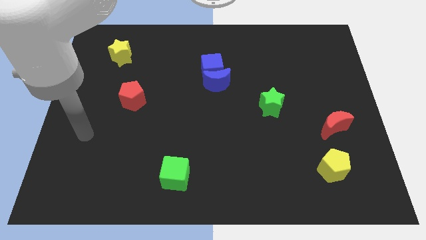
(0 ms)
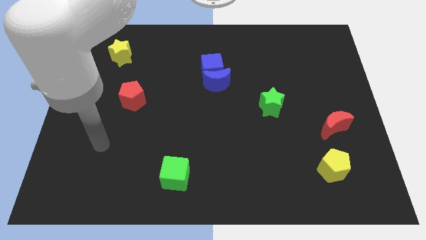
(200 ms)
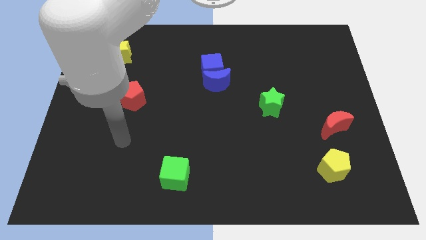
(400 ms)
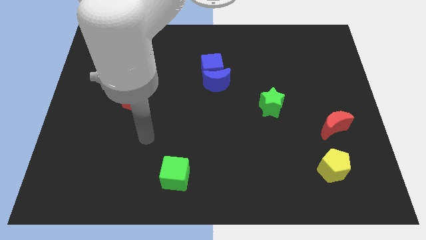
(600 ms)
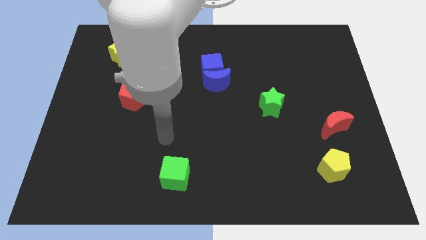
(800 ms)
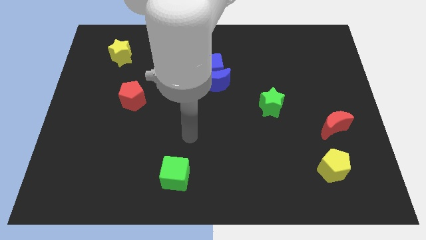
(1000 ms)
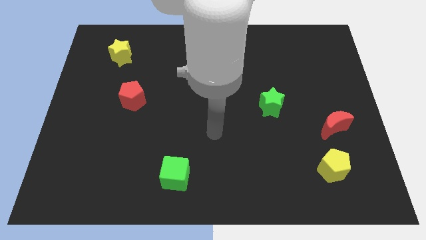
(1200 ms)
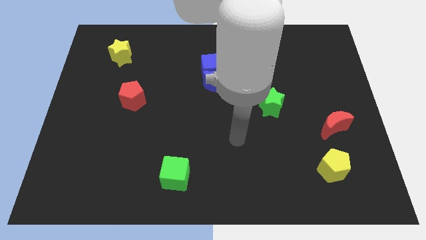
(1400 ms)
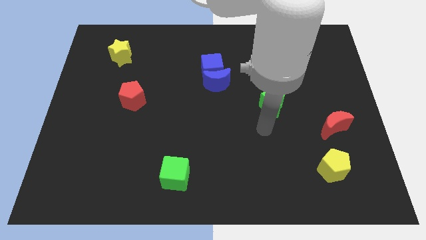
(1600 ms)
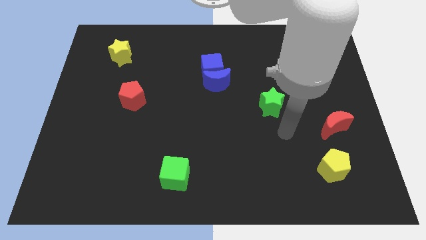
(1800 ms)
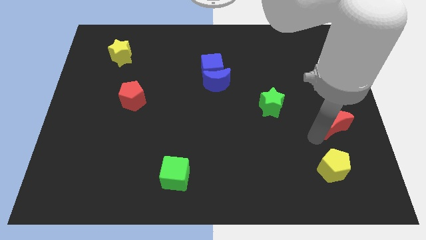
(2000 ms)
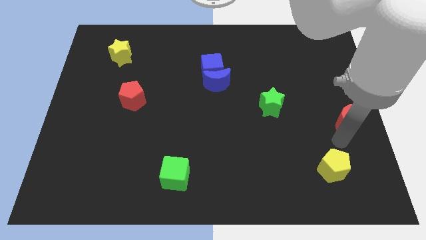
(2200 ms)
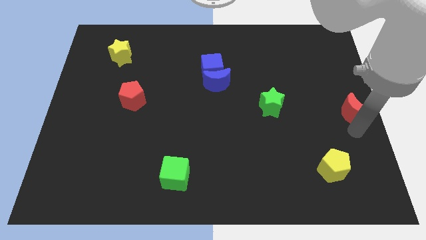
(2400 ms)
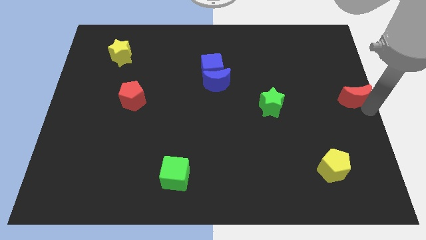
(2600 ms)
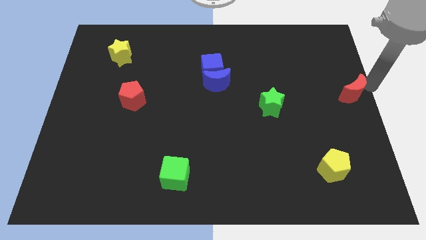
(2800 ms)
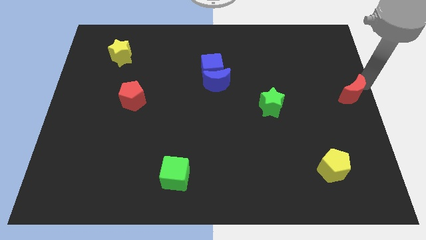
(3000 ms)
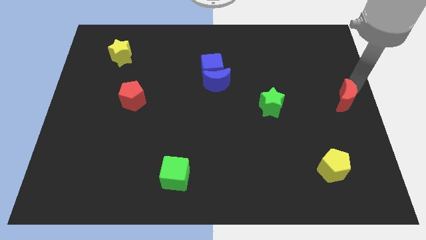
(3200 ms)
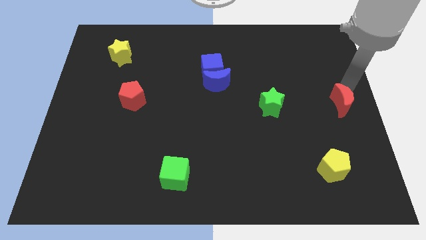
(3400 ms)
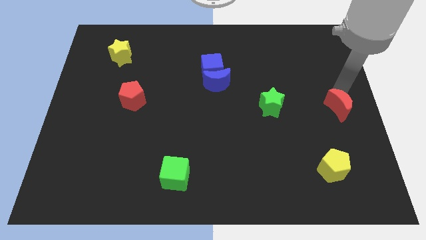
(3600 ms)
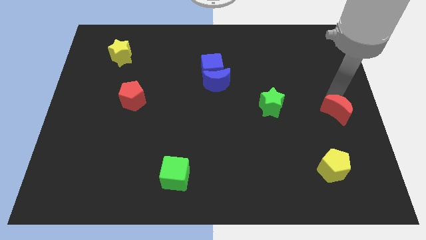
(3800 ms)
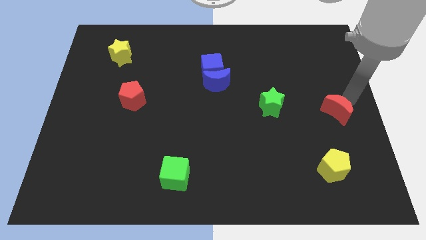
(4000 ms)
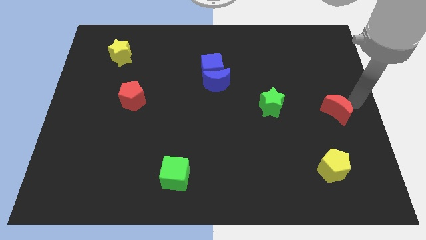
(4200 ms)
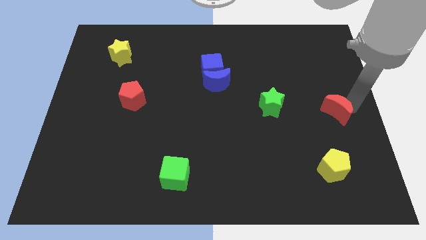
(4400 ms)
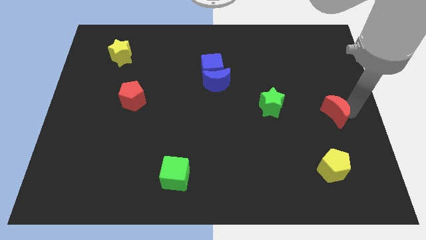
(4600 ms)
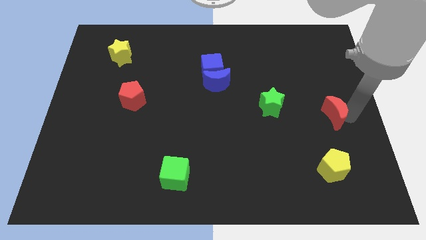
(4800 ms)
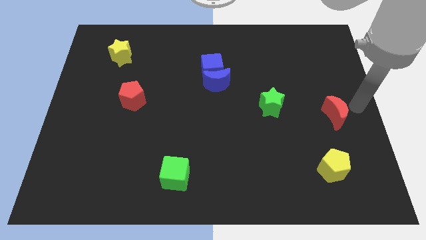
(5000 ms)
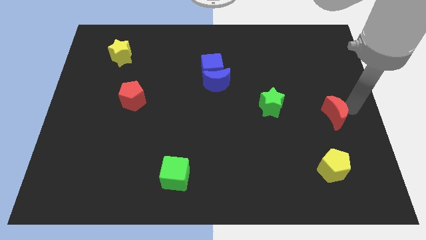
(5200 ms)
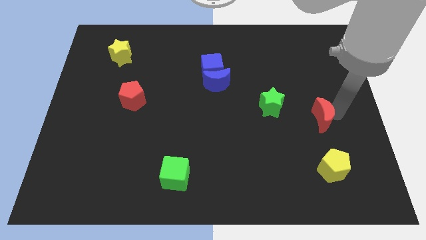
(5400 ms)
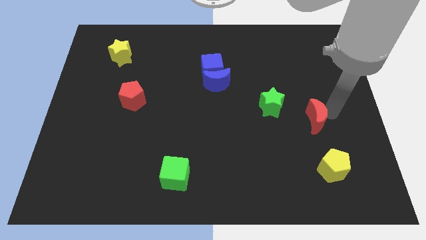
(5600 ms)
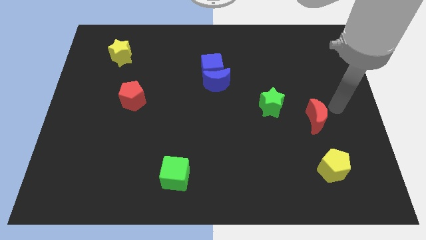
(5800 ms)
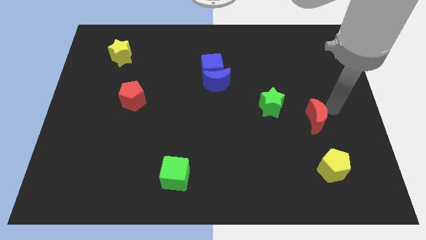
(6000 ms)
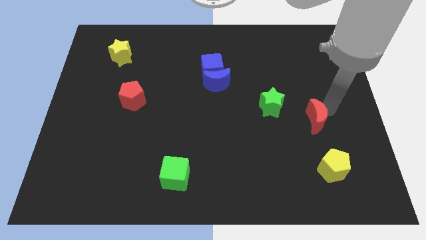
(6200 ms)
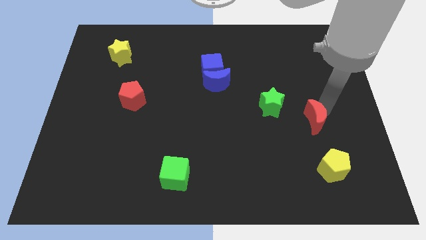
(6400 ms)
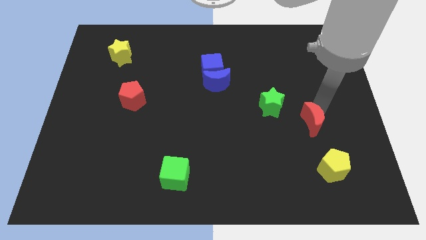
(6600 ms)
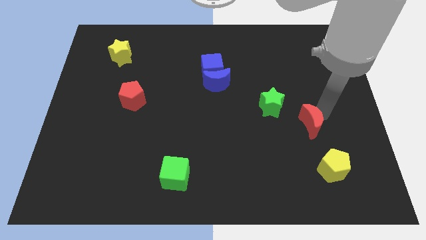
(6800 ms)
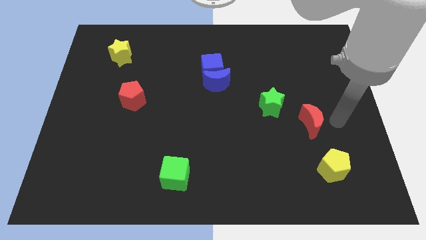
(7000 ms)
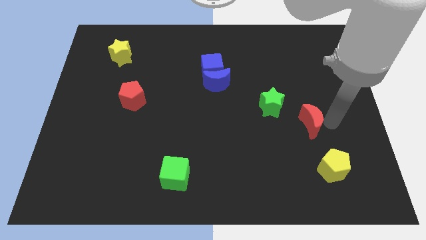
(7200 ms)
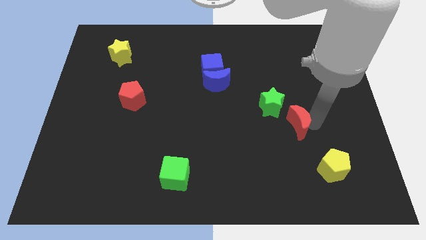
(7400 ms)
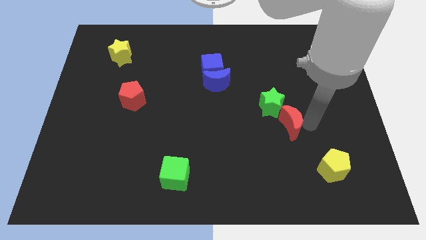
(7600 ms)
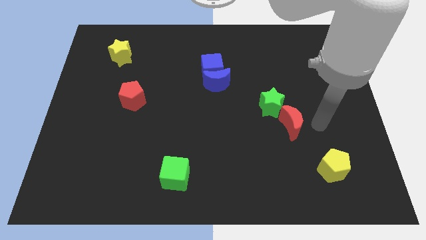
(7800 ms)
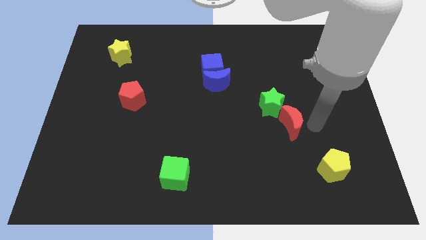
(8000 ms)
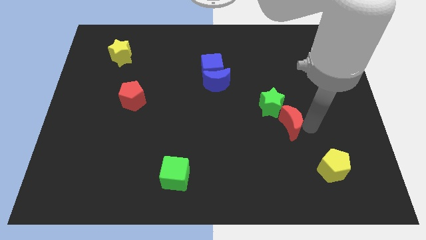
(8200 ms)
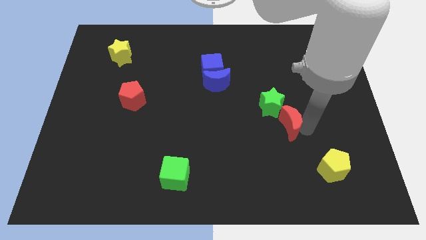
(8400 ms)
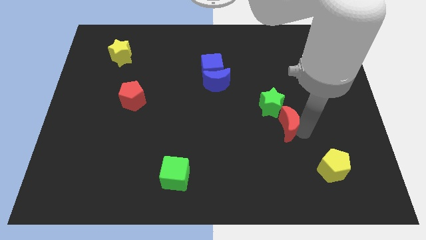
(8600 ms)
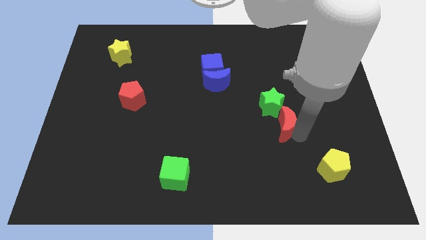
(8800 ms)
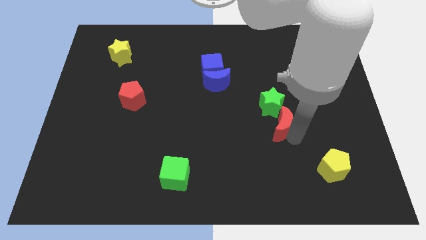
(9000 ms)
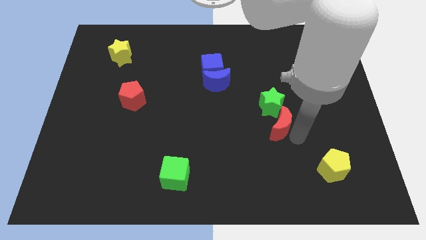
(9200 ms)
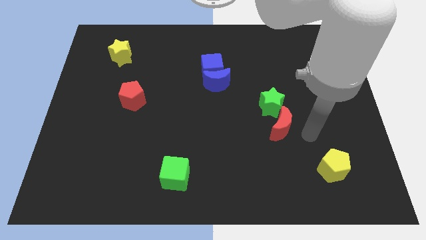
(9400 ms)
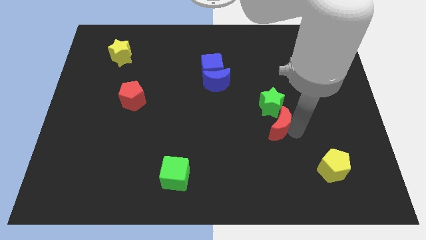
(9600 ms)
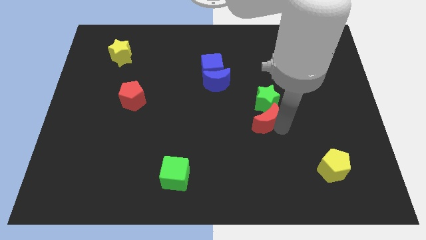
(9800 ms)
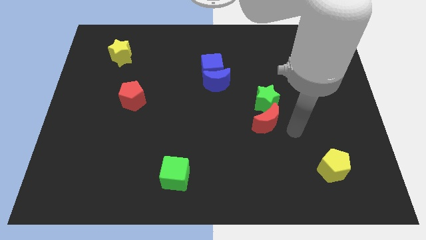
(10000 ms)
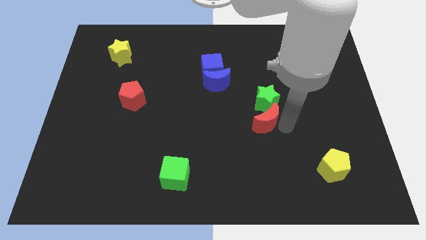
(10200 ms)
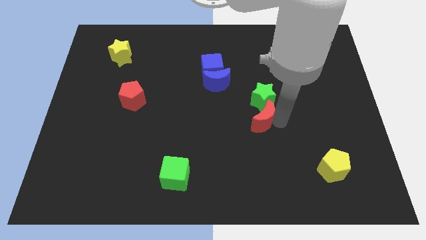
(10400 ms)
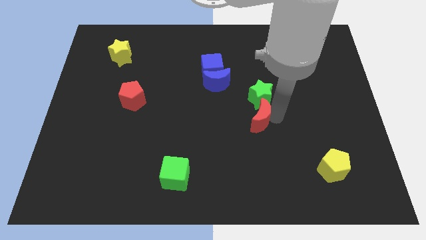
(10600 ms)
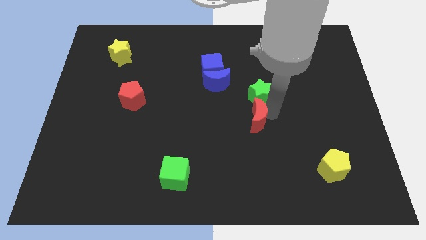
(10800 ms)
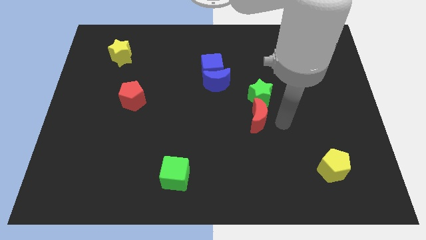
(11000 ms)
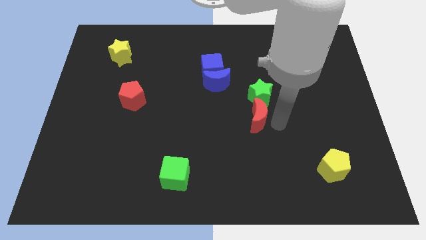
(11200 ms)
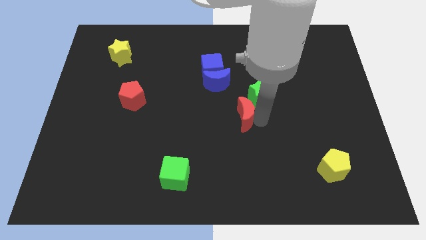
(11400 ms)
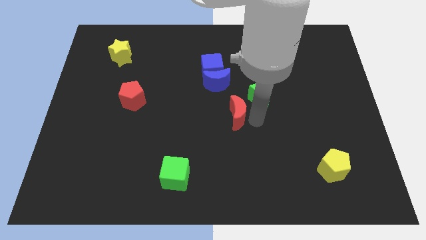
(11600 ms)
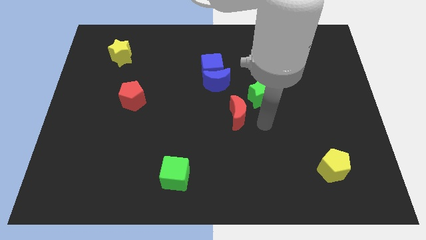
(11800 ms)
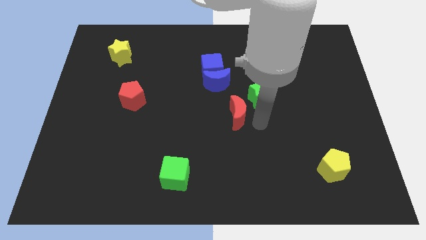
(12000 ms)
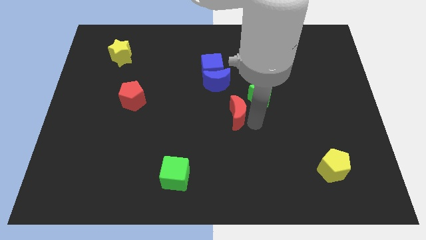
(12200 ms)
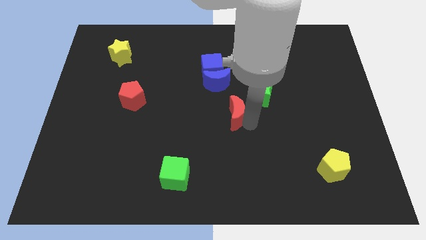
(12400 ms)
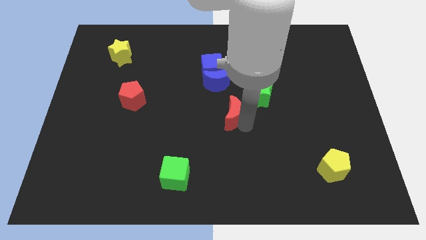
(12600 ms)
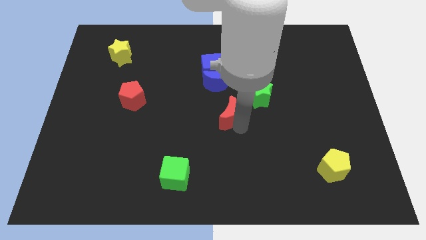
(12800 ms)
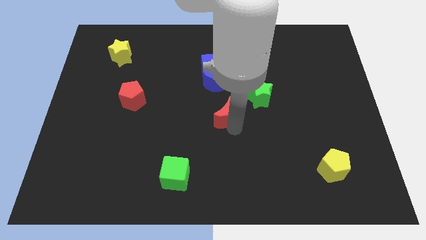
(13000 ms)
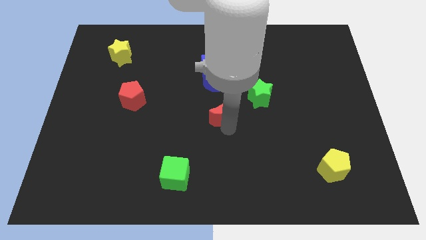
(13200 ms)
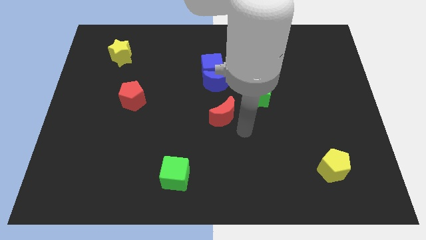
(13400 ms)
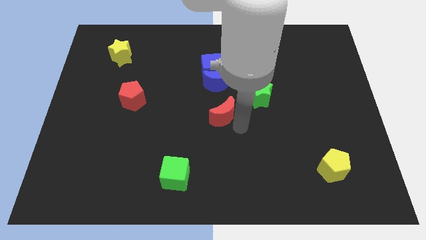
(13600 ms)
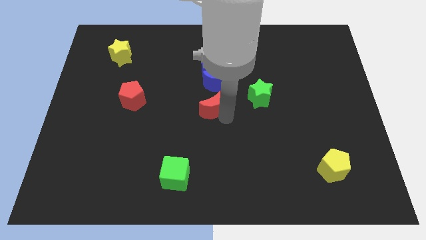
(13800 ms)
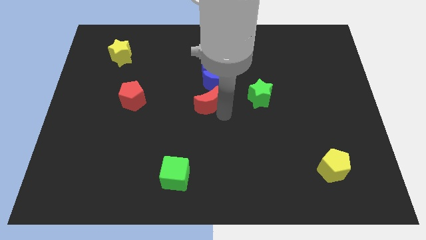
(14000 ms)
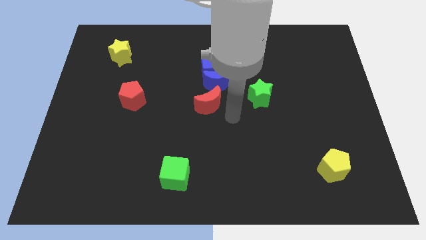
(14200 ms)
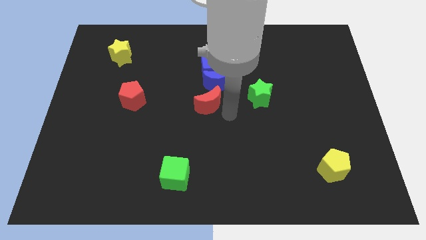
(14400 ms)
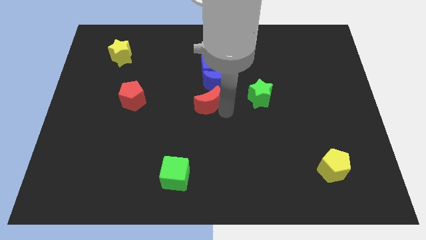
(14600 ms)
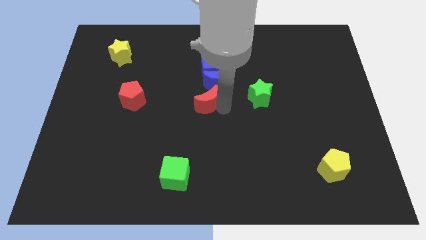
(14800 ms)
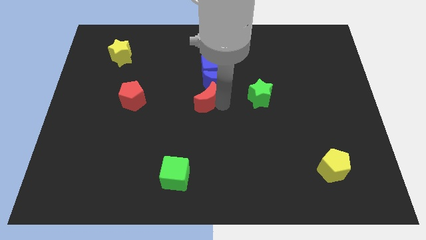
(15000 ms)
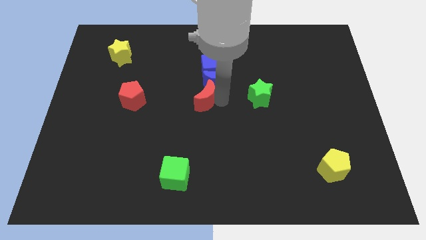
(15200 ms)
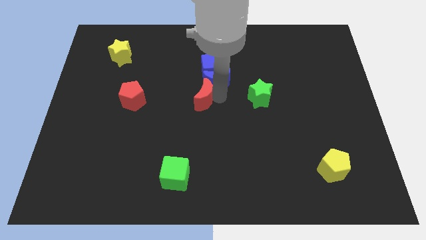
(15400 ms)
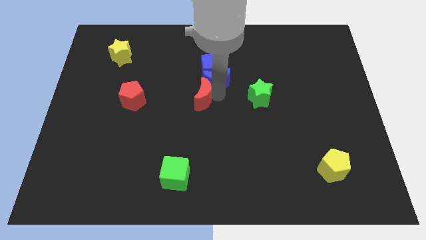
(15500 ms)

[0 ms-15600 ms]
push the red moon left of the blue moon
